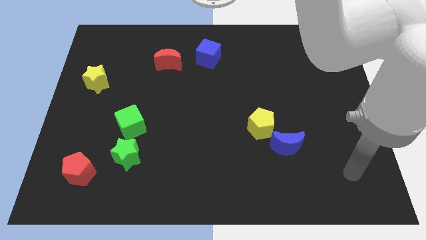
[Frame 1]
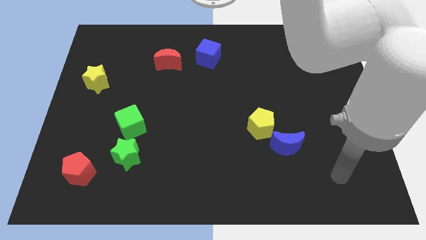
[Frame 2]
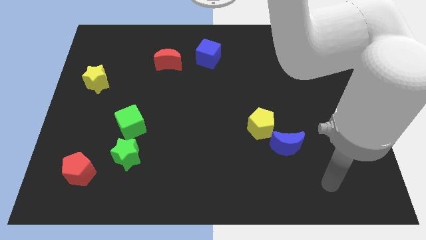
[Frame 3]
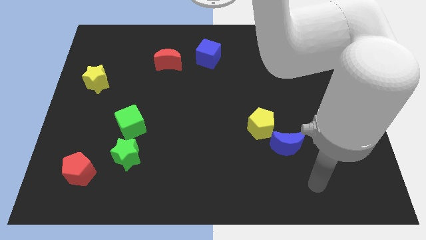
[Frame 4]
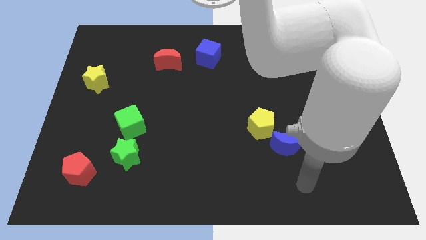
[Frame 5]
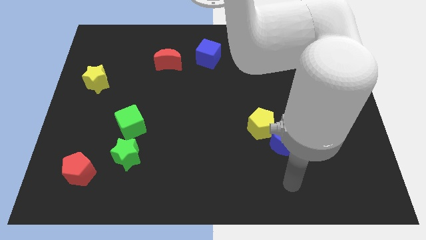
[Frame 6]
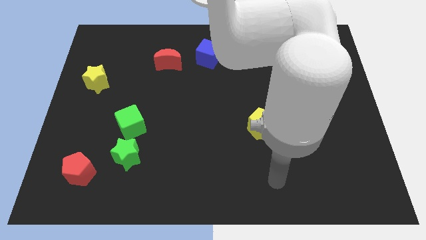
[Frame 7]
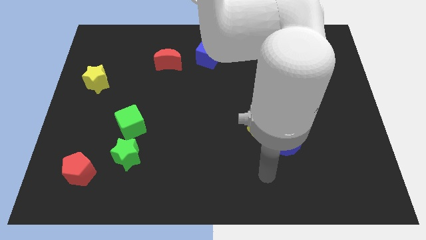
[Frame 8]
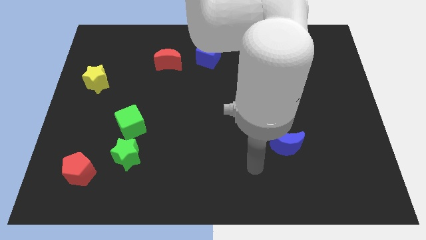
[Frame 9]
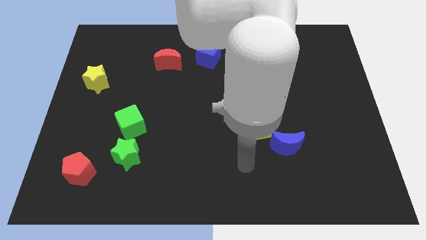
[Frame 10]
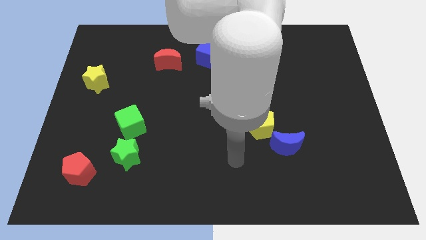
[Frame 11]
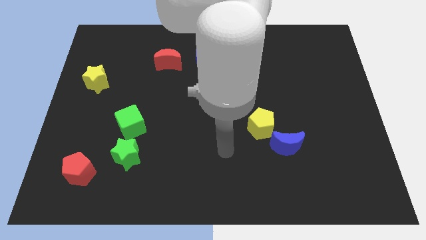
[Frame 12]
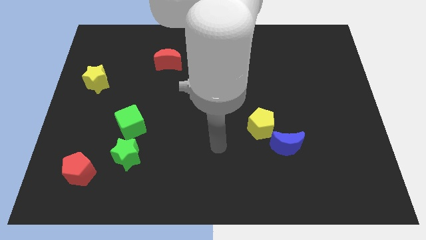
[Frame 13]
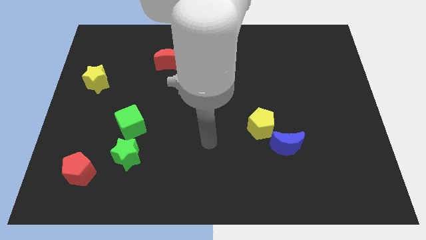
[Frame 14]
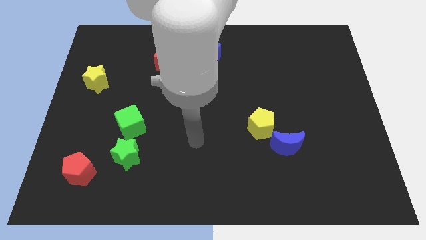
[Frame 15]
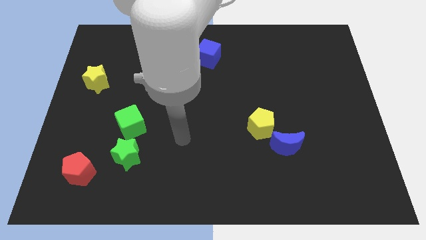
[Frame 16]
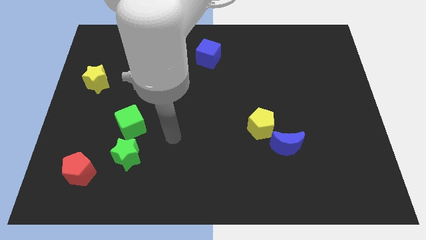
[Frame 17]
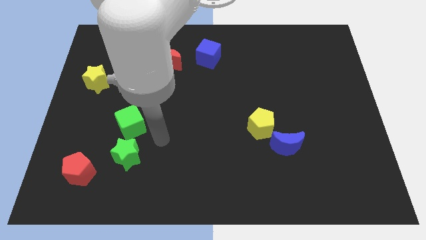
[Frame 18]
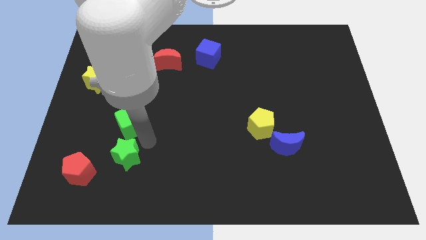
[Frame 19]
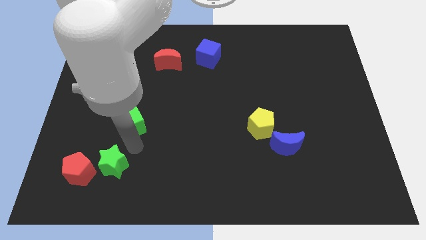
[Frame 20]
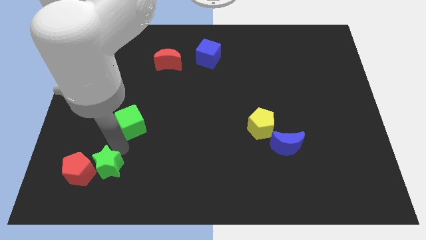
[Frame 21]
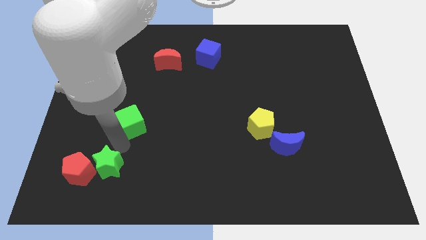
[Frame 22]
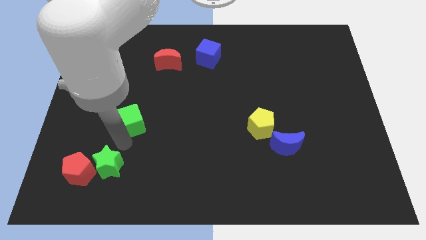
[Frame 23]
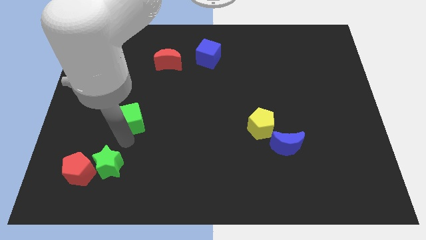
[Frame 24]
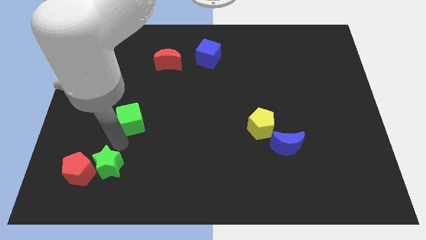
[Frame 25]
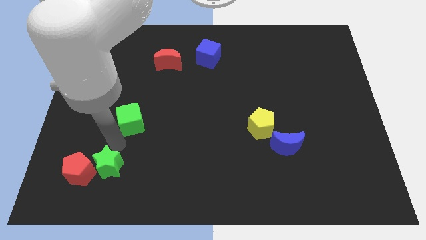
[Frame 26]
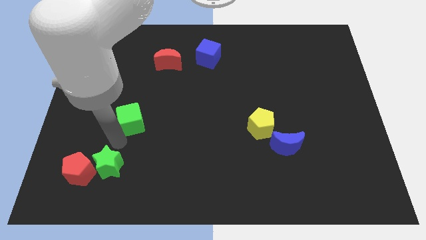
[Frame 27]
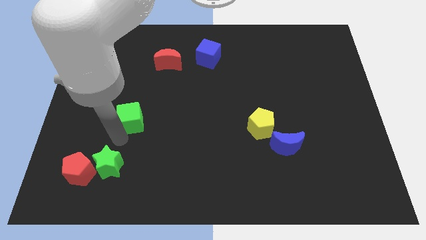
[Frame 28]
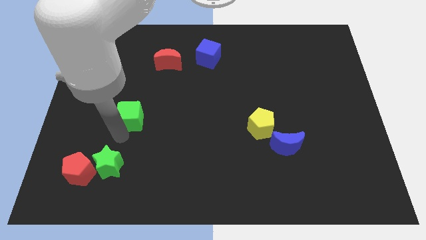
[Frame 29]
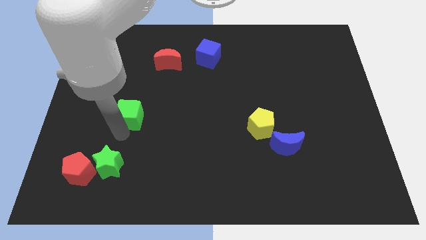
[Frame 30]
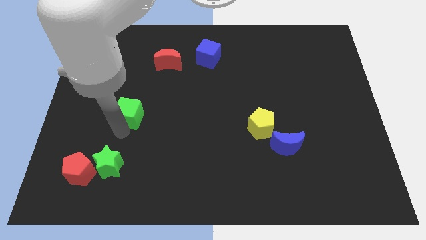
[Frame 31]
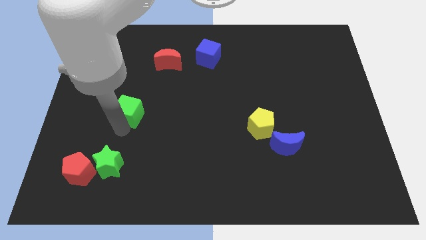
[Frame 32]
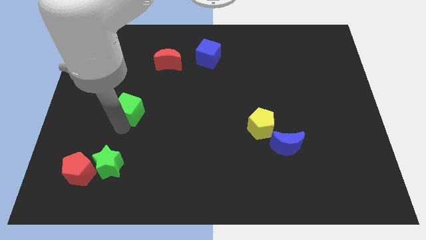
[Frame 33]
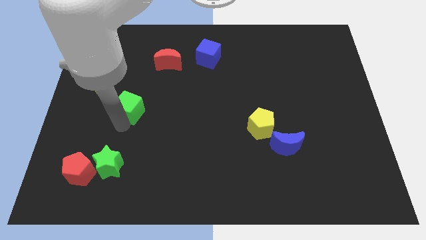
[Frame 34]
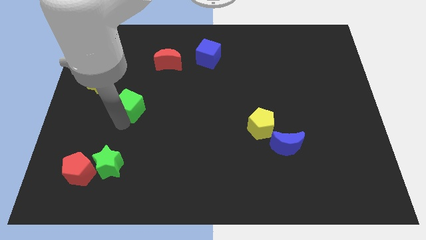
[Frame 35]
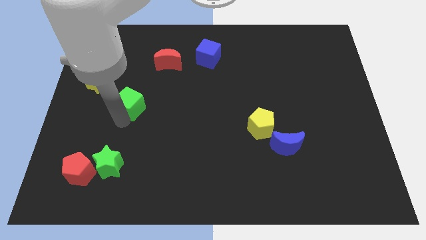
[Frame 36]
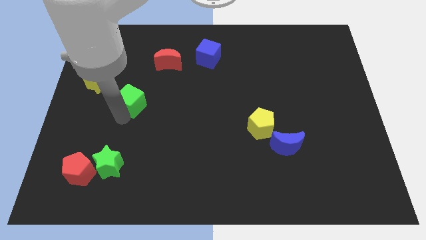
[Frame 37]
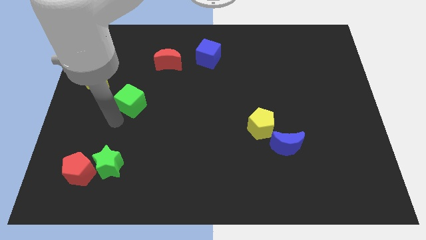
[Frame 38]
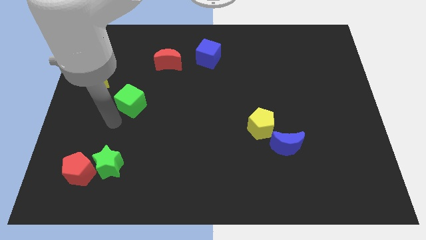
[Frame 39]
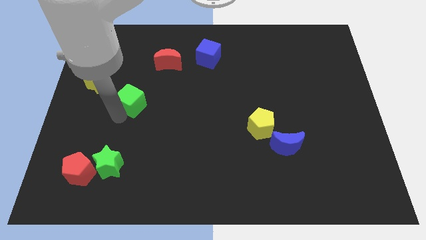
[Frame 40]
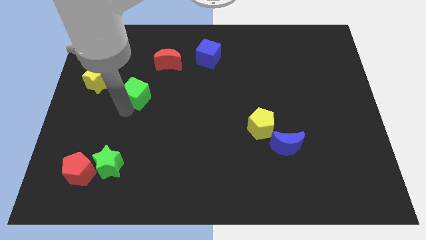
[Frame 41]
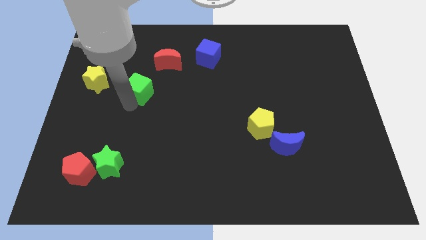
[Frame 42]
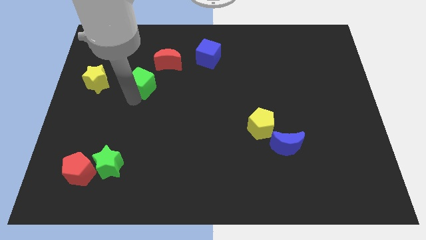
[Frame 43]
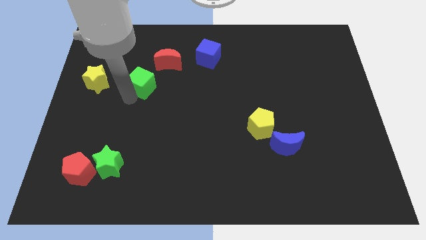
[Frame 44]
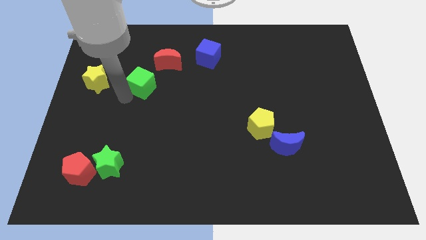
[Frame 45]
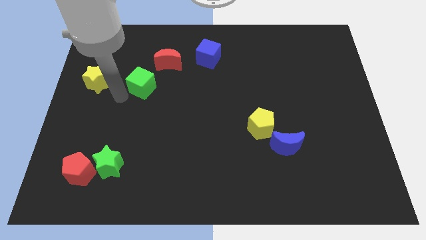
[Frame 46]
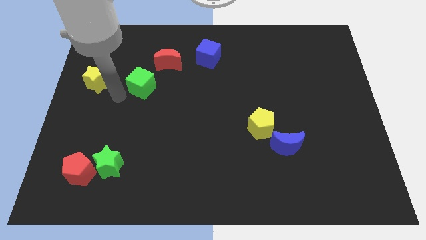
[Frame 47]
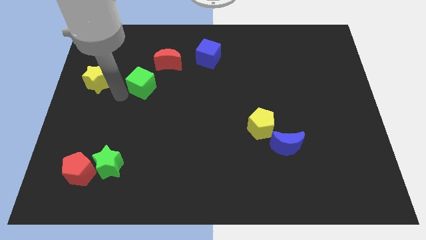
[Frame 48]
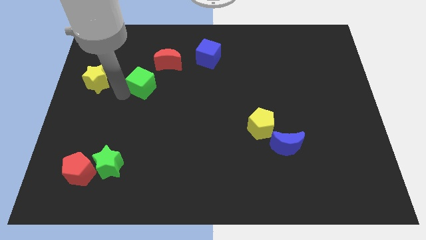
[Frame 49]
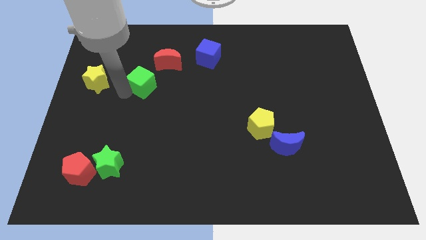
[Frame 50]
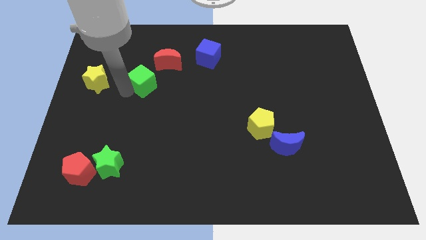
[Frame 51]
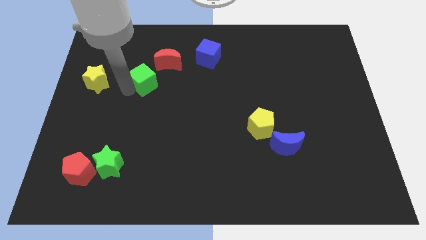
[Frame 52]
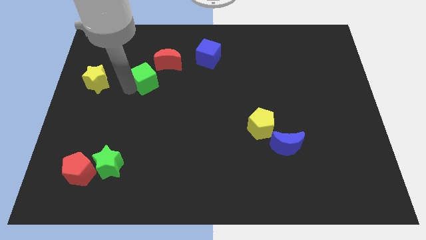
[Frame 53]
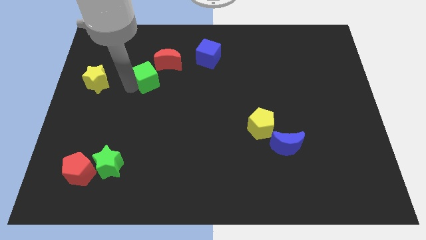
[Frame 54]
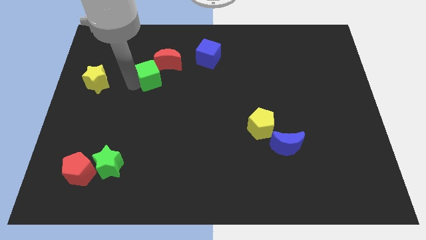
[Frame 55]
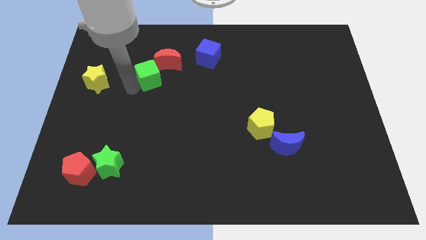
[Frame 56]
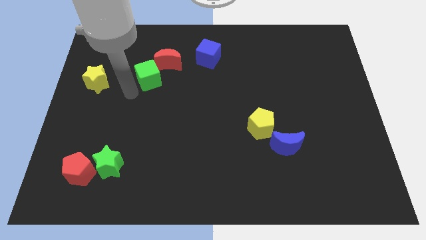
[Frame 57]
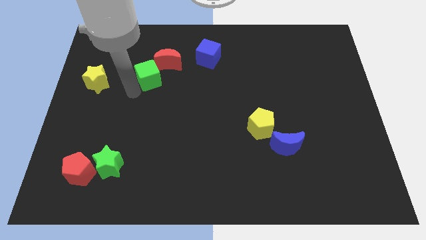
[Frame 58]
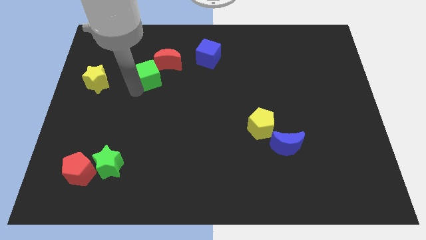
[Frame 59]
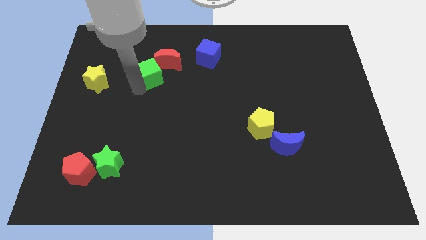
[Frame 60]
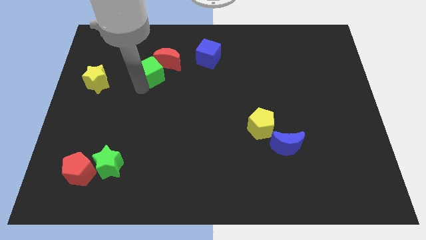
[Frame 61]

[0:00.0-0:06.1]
move the green cube towards the red moon

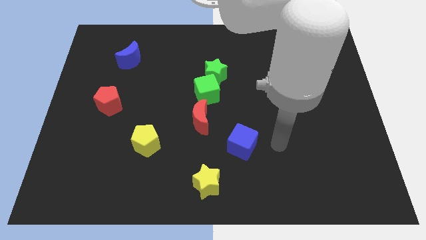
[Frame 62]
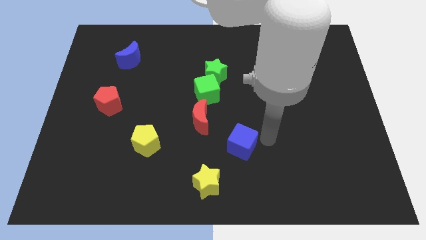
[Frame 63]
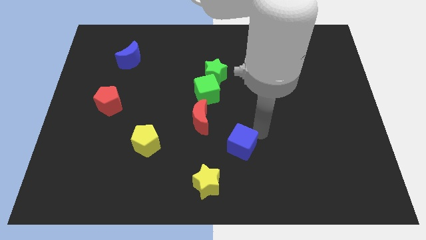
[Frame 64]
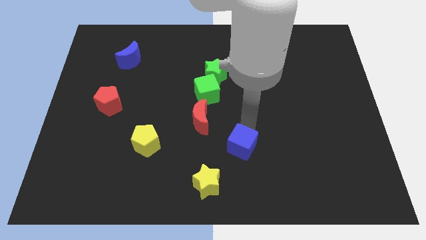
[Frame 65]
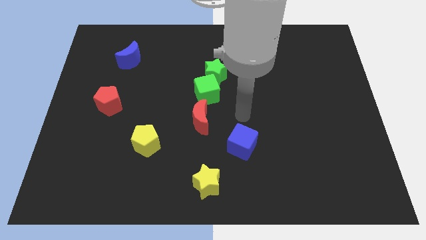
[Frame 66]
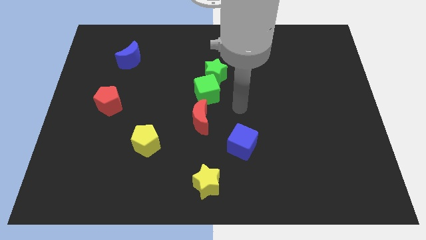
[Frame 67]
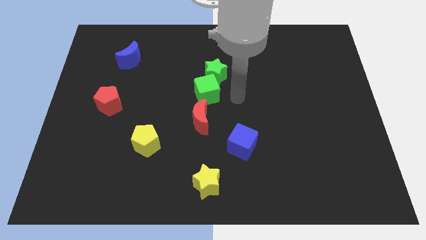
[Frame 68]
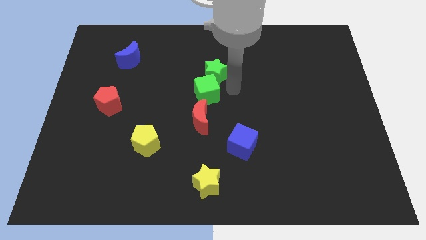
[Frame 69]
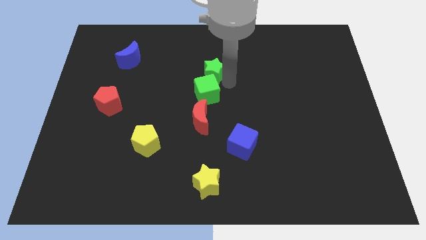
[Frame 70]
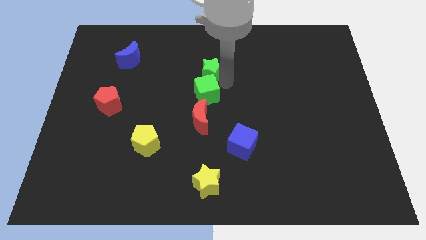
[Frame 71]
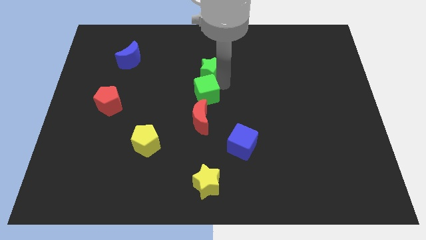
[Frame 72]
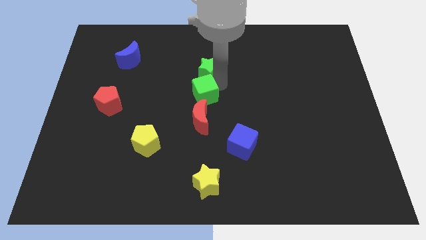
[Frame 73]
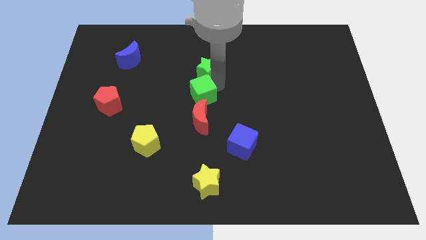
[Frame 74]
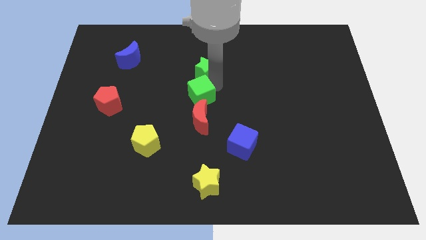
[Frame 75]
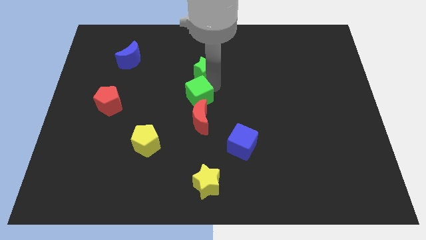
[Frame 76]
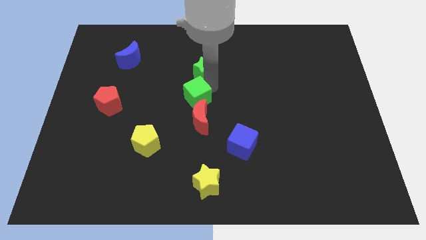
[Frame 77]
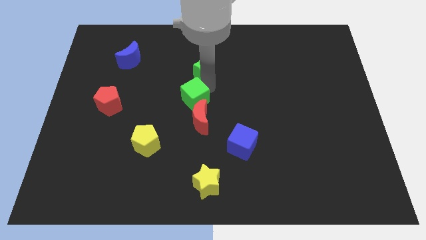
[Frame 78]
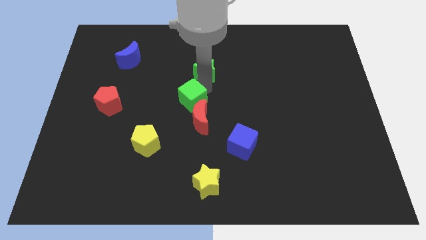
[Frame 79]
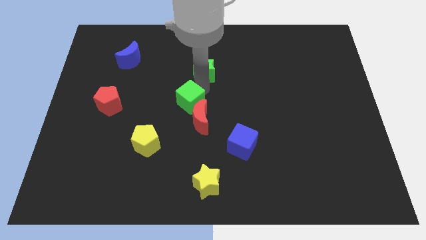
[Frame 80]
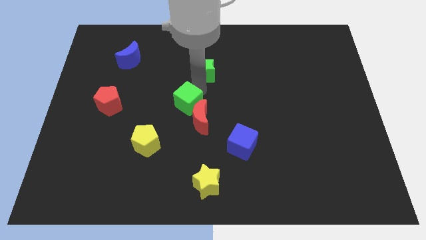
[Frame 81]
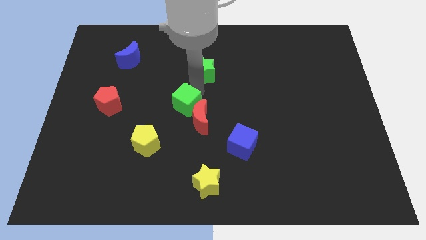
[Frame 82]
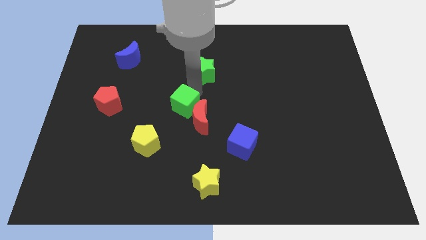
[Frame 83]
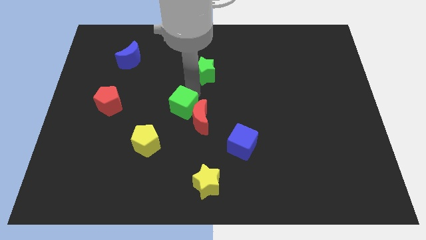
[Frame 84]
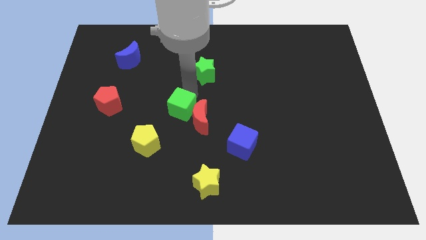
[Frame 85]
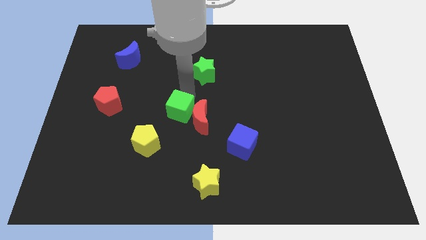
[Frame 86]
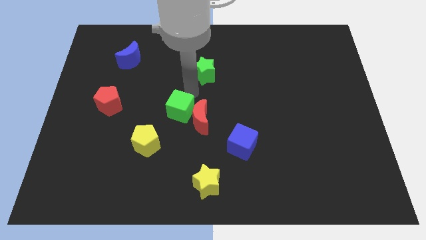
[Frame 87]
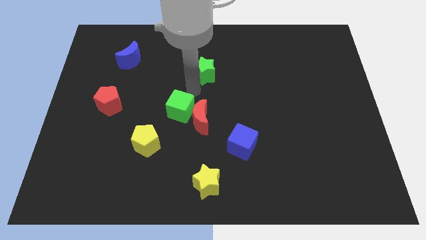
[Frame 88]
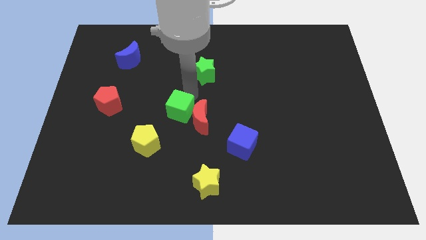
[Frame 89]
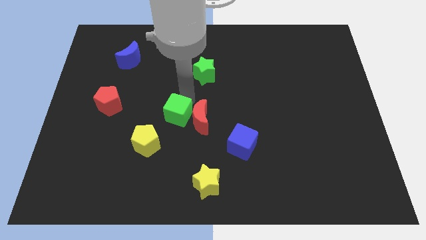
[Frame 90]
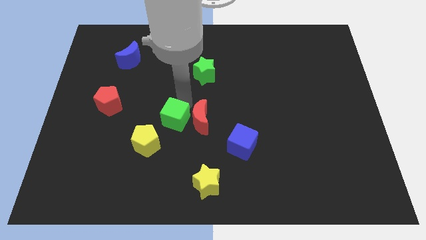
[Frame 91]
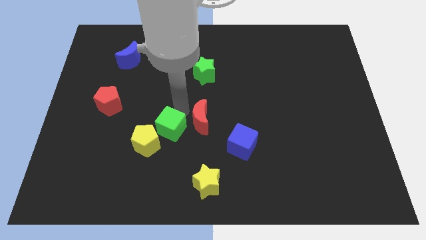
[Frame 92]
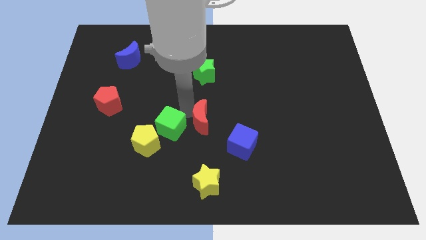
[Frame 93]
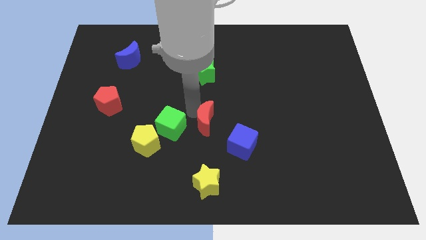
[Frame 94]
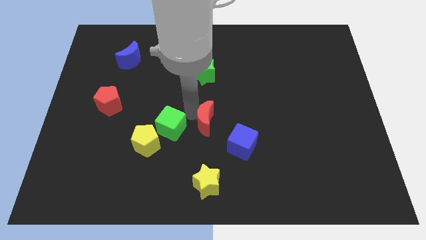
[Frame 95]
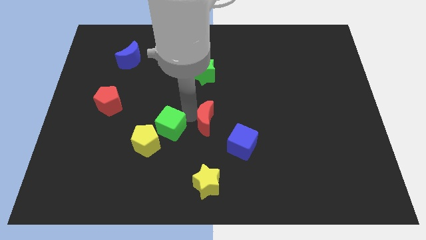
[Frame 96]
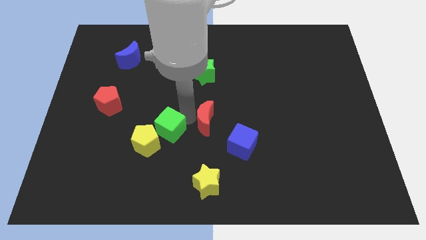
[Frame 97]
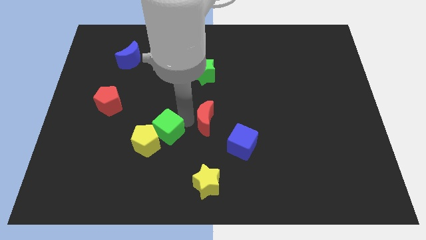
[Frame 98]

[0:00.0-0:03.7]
push the green cube next to the yellow pentagon
